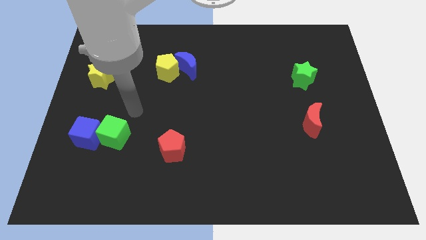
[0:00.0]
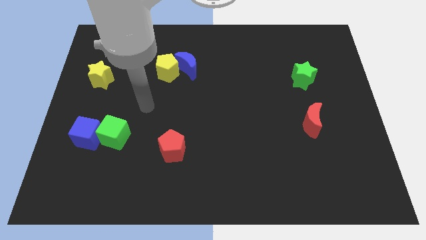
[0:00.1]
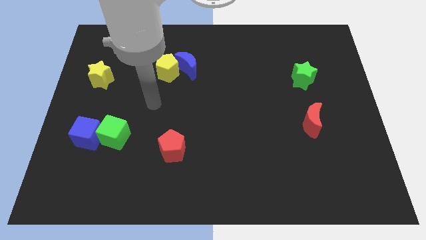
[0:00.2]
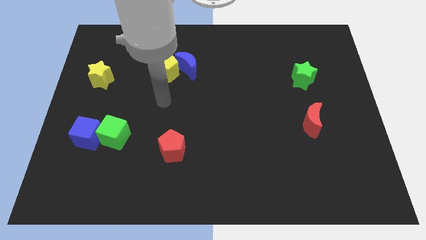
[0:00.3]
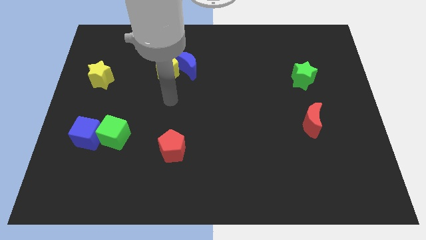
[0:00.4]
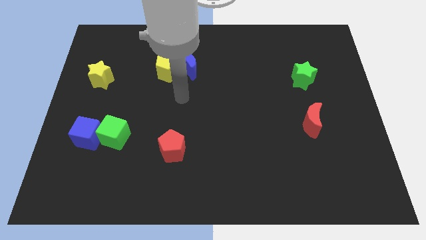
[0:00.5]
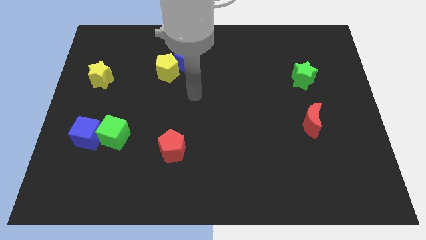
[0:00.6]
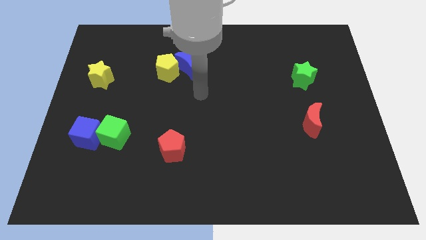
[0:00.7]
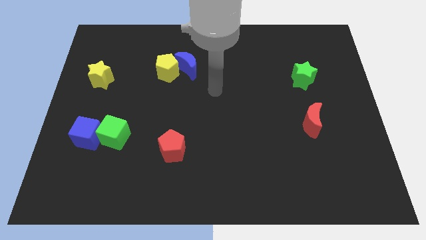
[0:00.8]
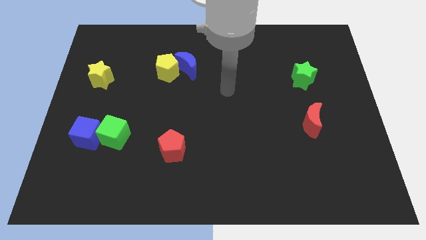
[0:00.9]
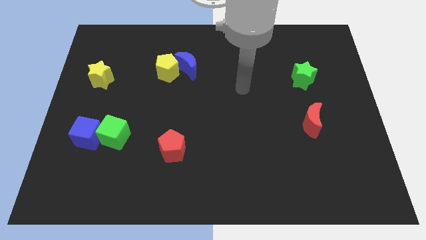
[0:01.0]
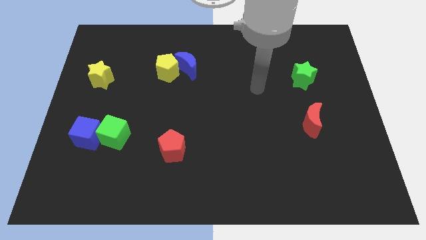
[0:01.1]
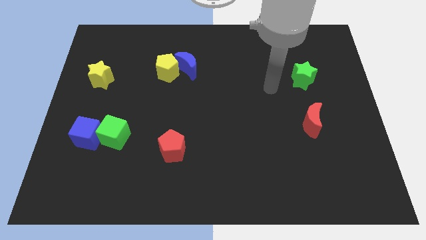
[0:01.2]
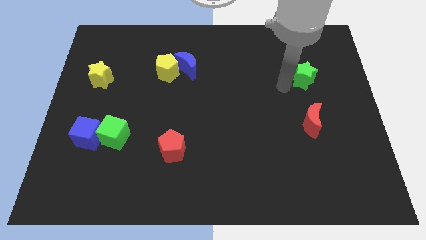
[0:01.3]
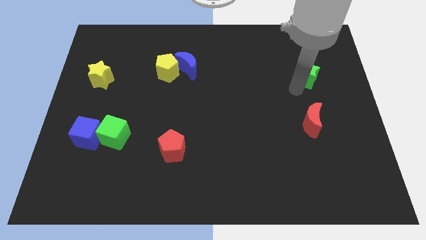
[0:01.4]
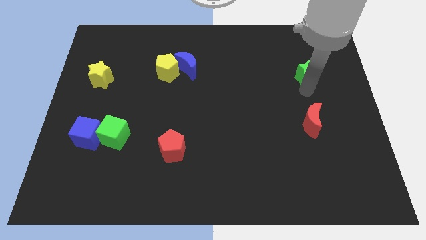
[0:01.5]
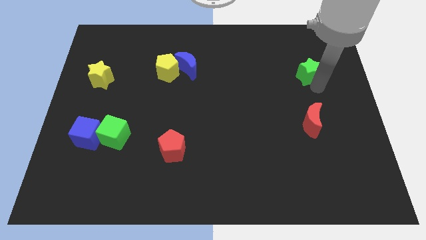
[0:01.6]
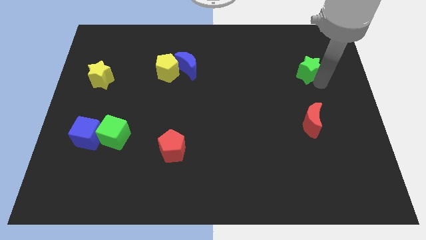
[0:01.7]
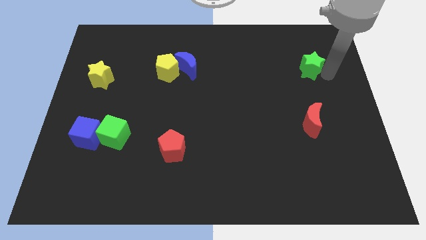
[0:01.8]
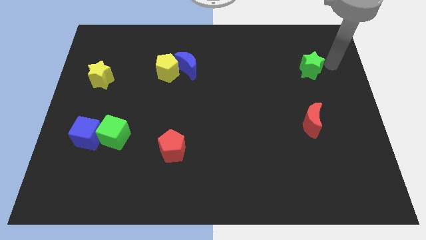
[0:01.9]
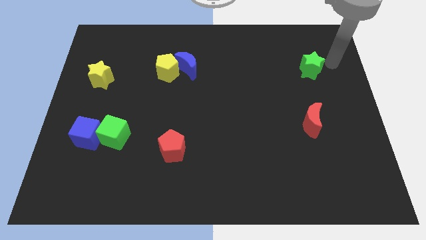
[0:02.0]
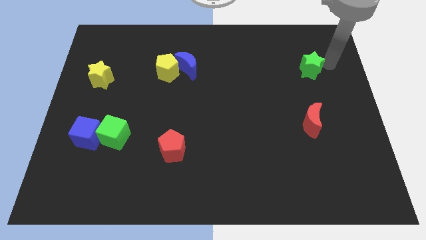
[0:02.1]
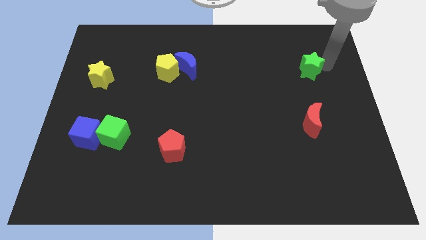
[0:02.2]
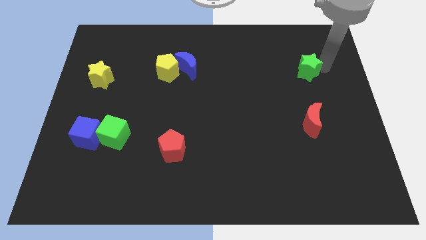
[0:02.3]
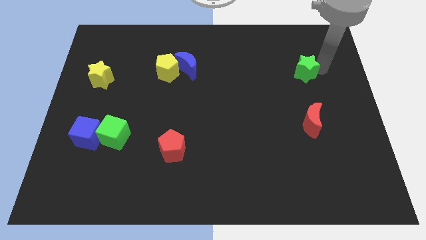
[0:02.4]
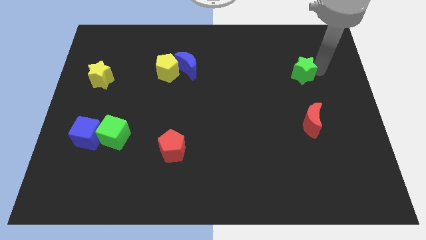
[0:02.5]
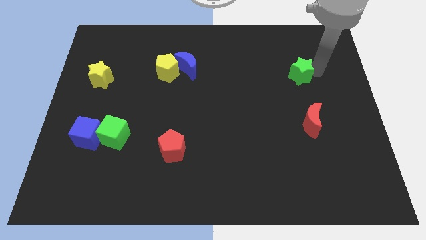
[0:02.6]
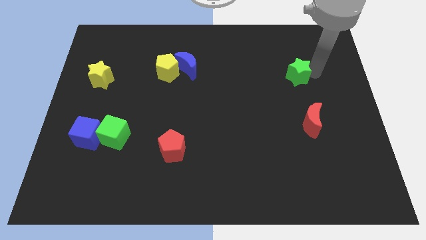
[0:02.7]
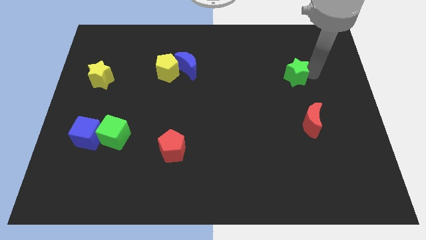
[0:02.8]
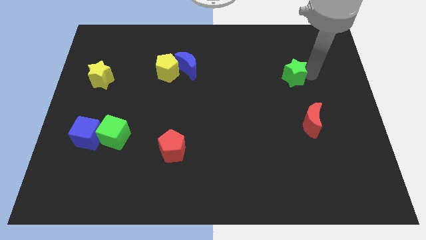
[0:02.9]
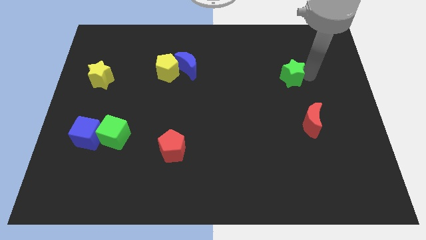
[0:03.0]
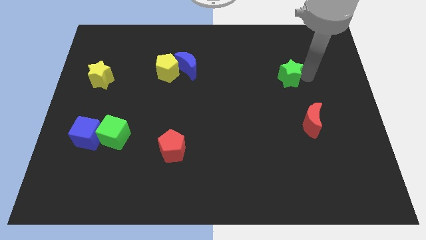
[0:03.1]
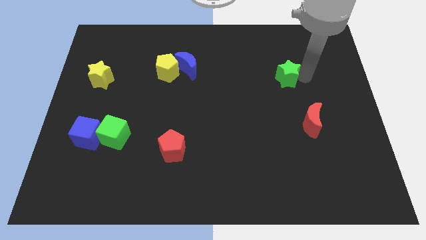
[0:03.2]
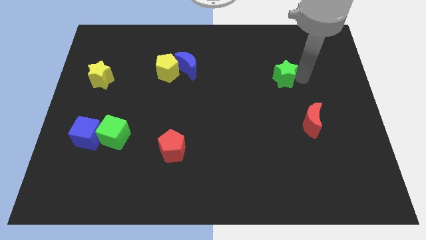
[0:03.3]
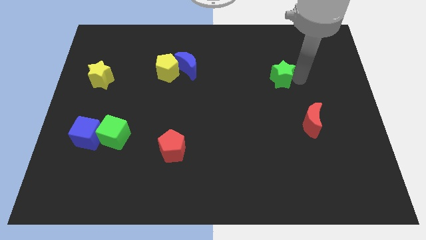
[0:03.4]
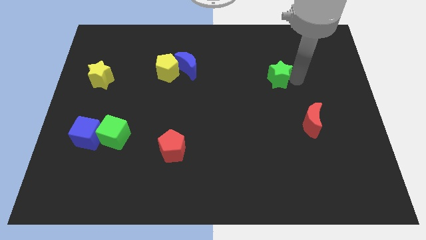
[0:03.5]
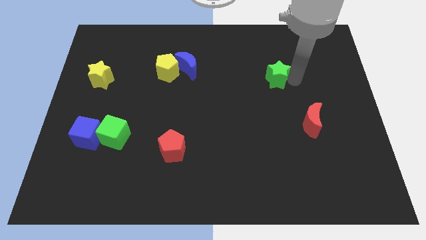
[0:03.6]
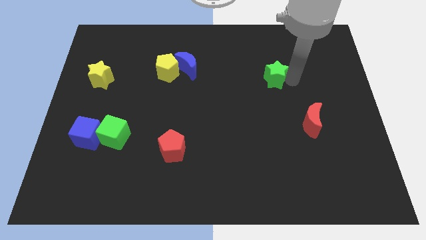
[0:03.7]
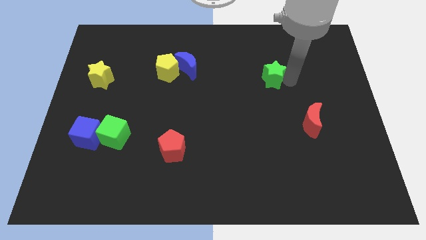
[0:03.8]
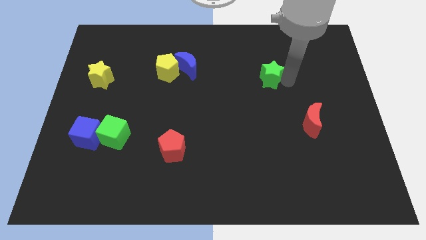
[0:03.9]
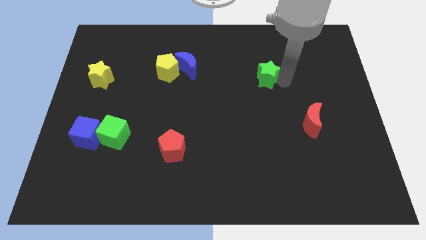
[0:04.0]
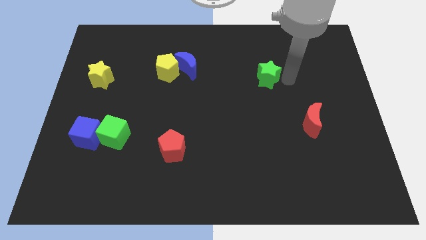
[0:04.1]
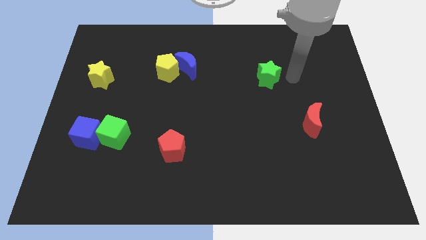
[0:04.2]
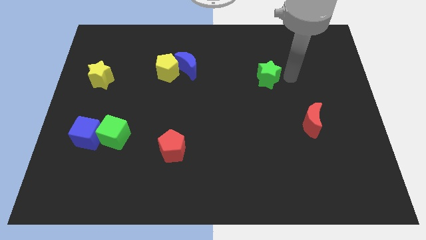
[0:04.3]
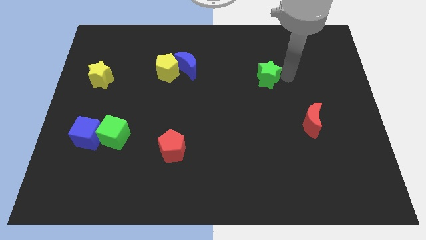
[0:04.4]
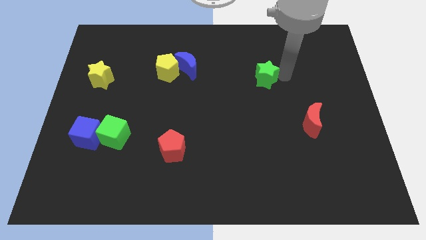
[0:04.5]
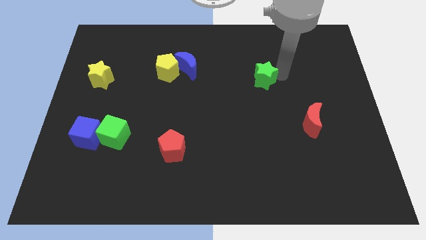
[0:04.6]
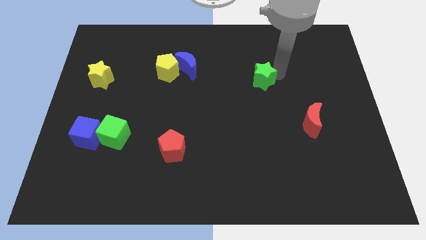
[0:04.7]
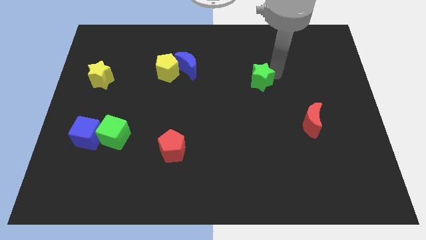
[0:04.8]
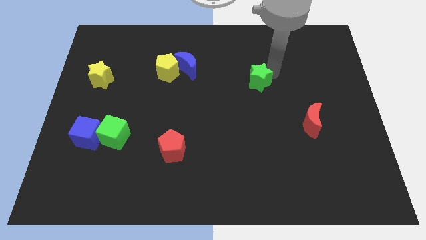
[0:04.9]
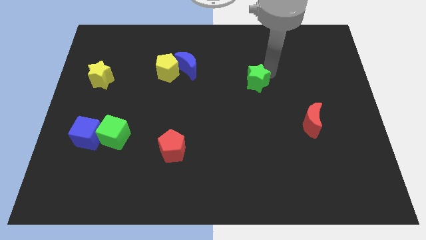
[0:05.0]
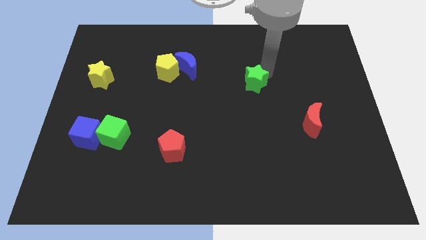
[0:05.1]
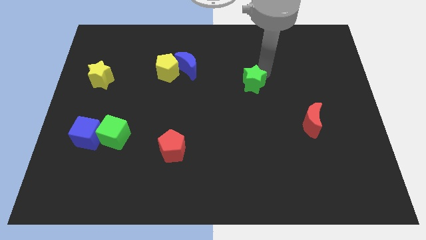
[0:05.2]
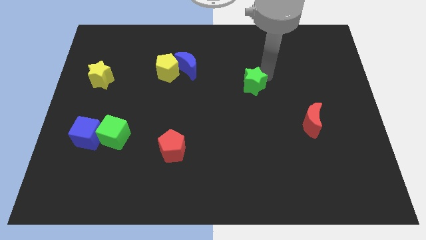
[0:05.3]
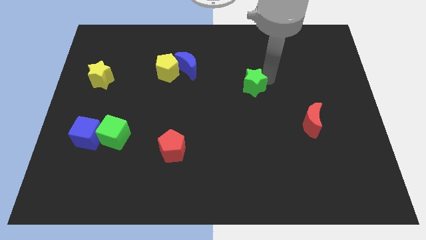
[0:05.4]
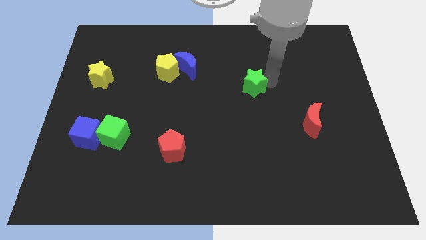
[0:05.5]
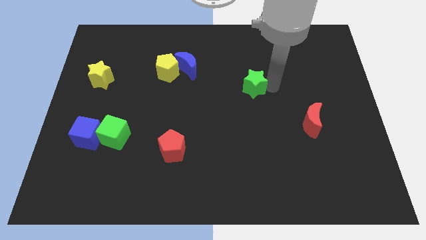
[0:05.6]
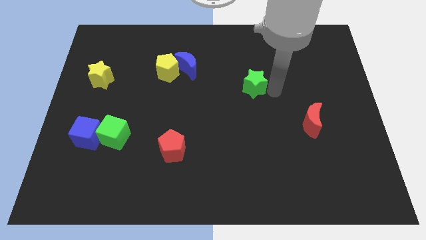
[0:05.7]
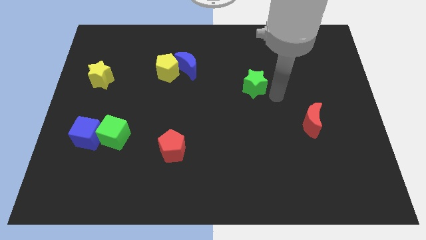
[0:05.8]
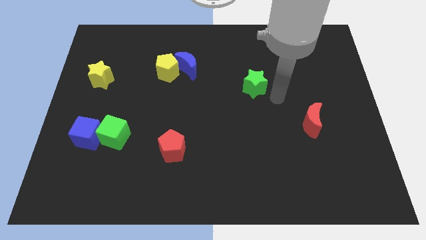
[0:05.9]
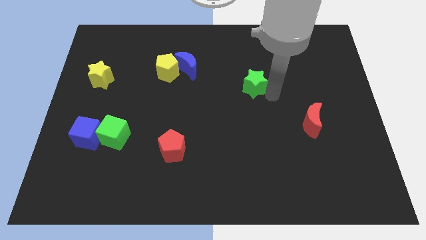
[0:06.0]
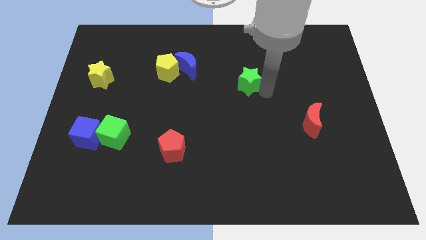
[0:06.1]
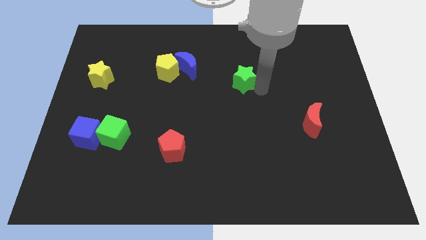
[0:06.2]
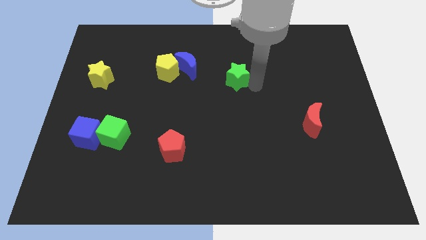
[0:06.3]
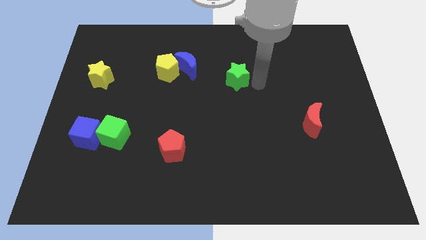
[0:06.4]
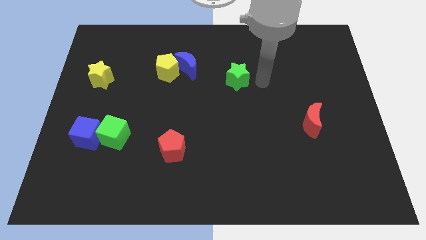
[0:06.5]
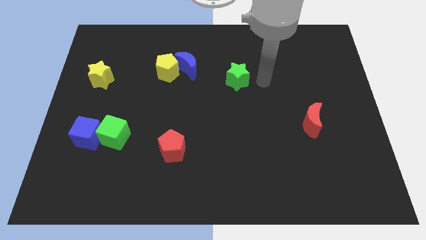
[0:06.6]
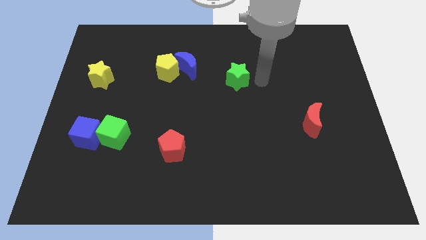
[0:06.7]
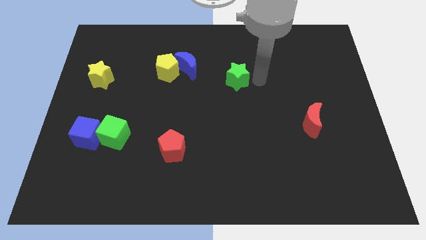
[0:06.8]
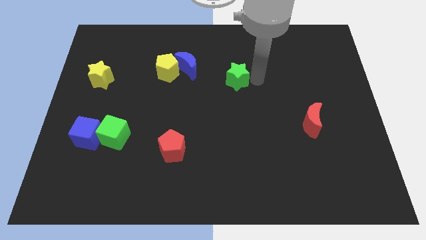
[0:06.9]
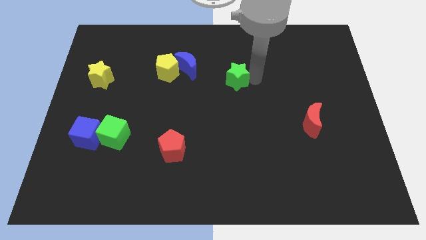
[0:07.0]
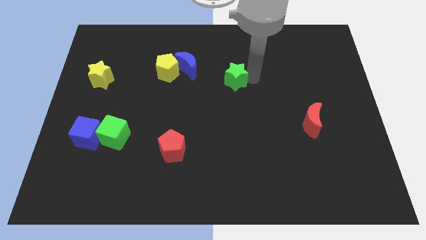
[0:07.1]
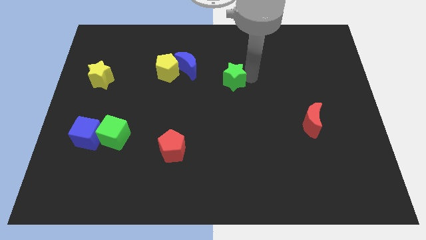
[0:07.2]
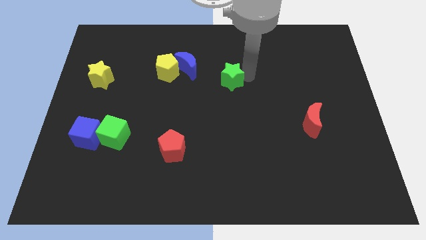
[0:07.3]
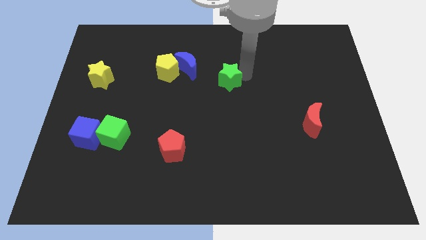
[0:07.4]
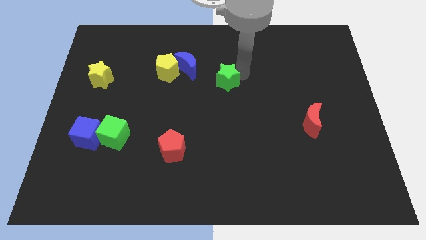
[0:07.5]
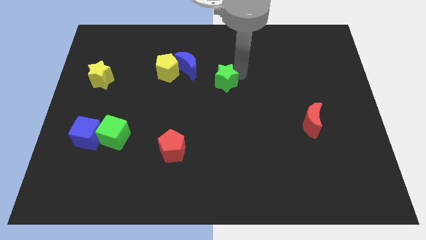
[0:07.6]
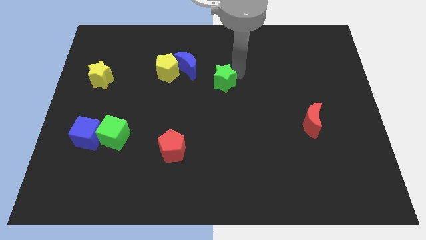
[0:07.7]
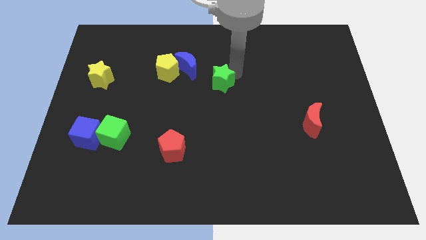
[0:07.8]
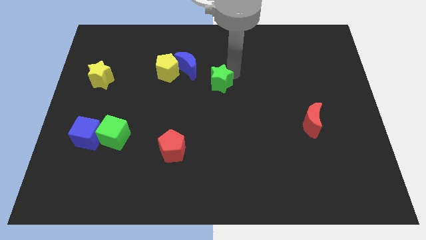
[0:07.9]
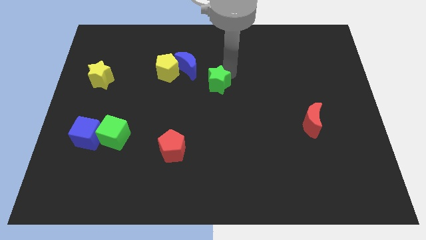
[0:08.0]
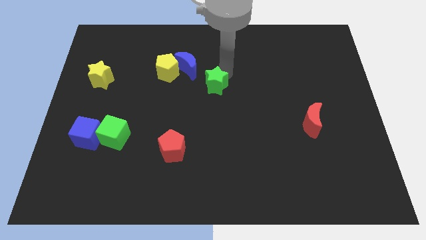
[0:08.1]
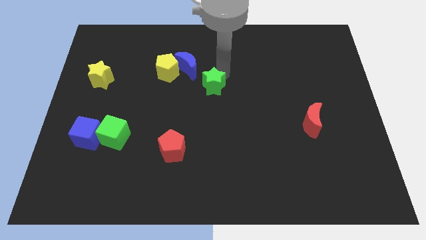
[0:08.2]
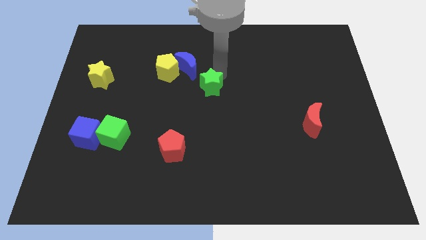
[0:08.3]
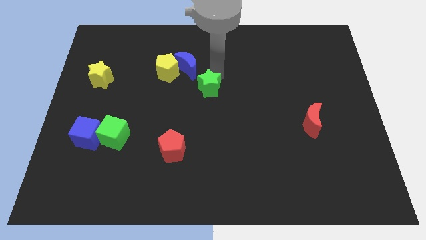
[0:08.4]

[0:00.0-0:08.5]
push the green star diagonally down and to the right of the yellow pentagon
